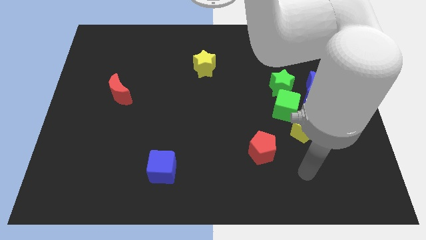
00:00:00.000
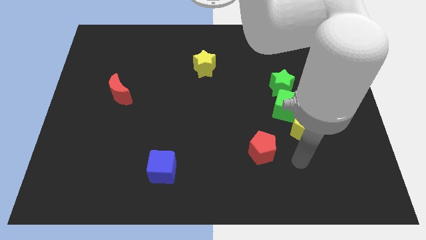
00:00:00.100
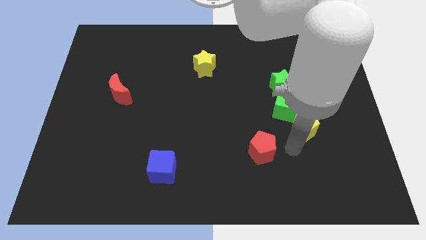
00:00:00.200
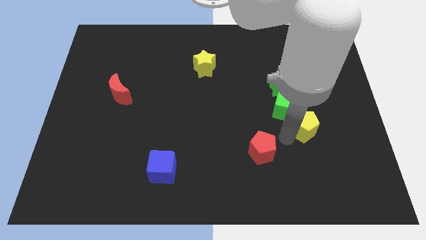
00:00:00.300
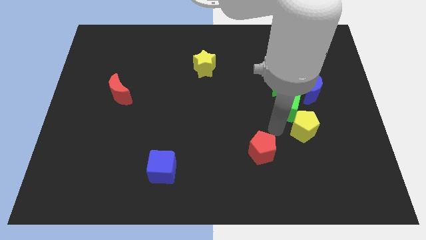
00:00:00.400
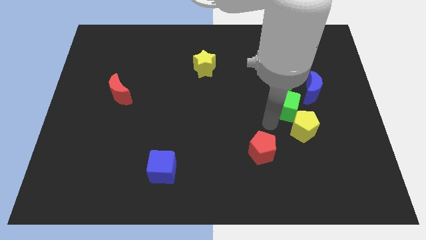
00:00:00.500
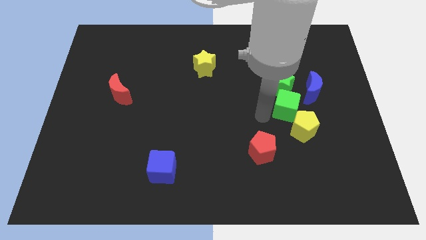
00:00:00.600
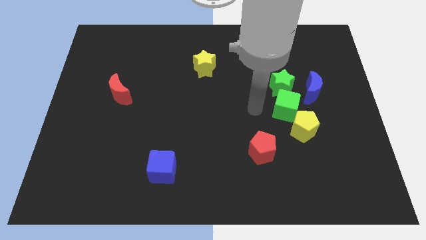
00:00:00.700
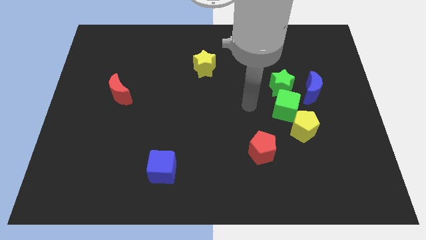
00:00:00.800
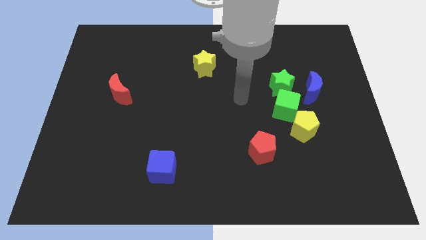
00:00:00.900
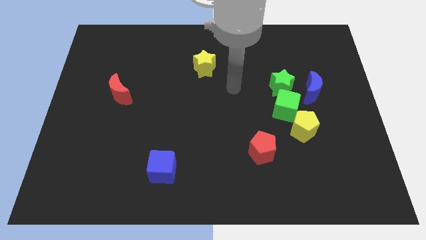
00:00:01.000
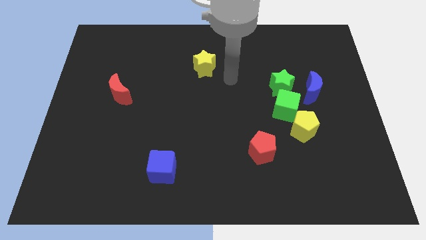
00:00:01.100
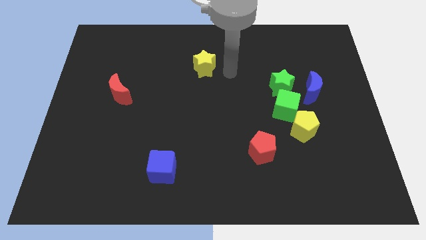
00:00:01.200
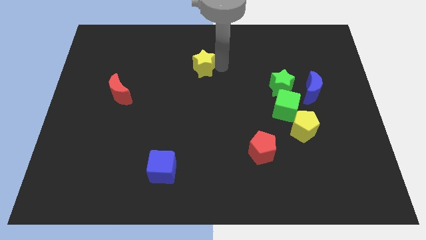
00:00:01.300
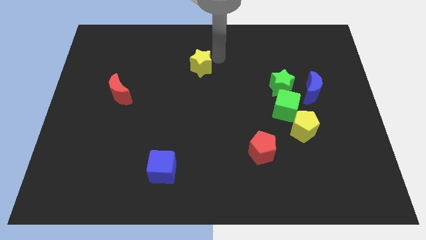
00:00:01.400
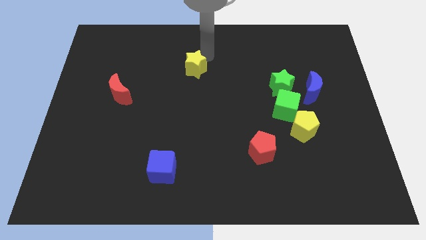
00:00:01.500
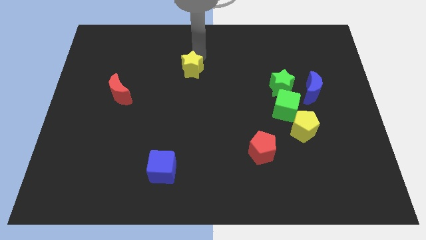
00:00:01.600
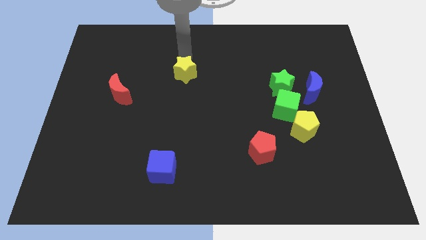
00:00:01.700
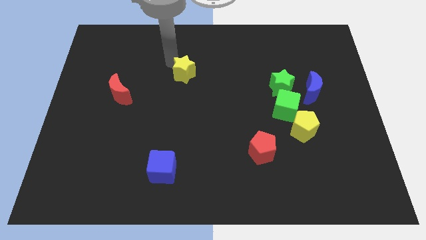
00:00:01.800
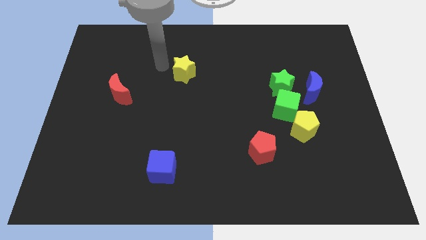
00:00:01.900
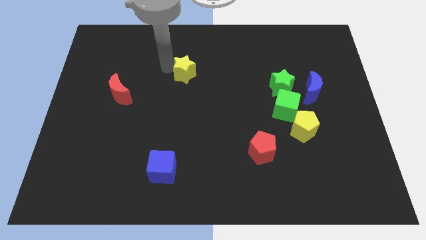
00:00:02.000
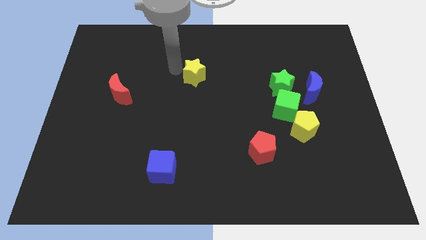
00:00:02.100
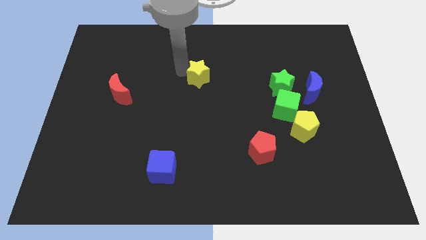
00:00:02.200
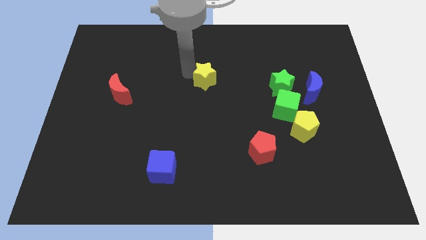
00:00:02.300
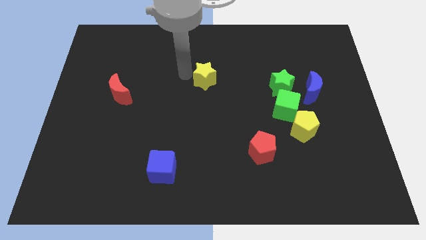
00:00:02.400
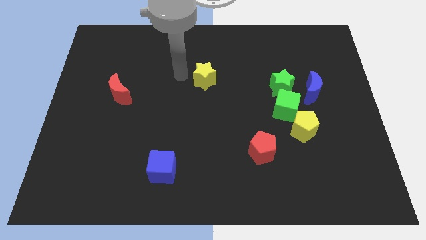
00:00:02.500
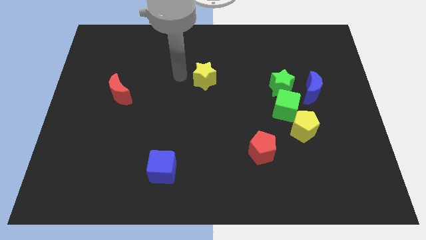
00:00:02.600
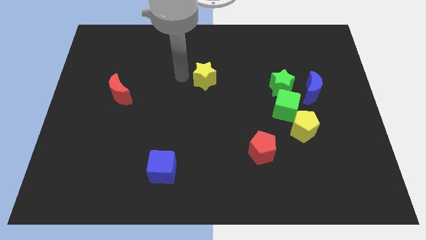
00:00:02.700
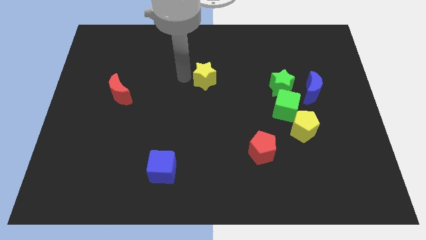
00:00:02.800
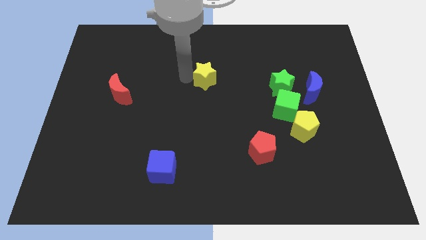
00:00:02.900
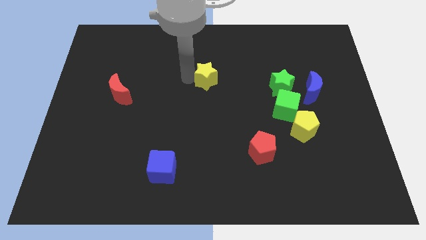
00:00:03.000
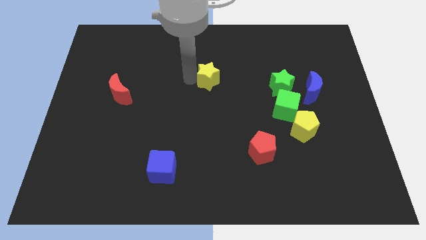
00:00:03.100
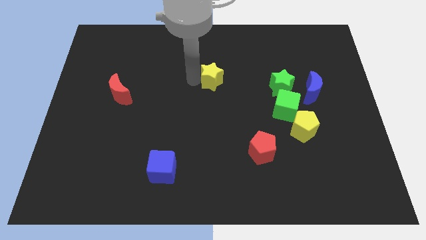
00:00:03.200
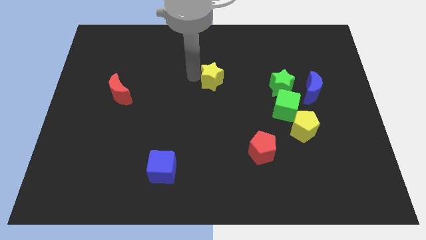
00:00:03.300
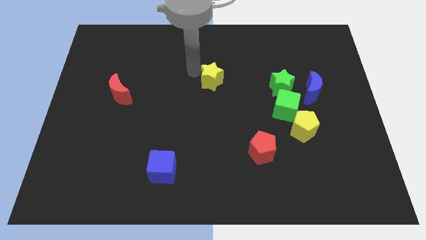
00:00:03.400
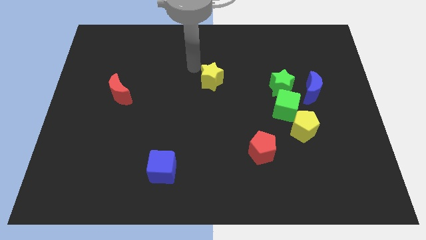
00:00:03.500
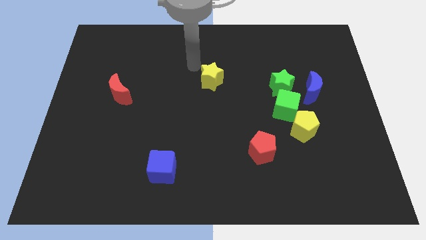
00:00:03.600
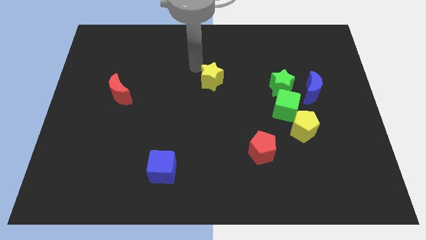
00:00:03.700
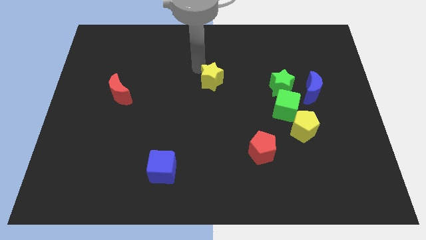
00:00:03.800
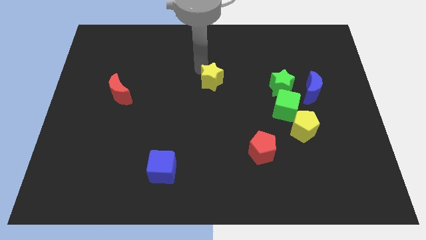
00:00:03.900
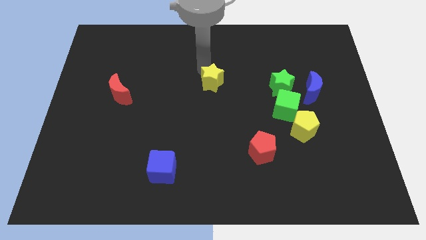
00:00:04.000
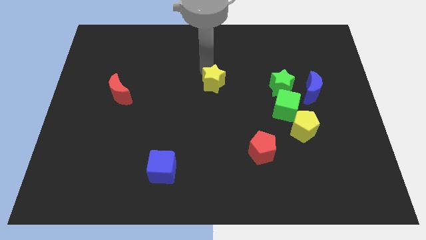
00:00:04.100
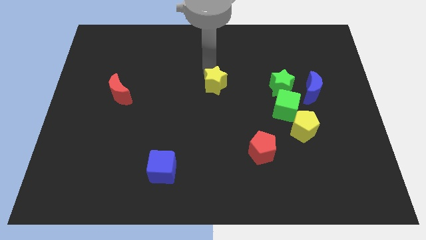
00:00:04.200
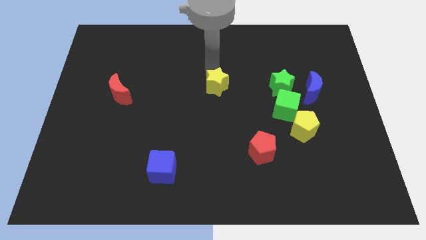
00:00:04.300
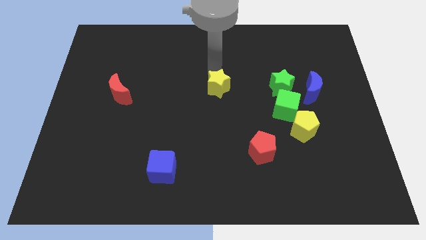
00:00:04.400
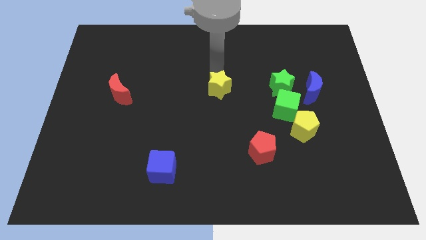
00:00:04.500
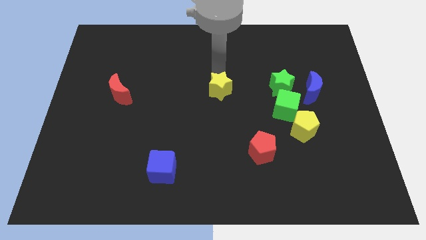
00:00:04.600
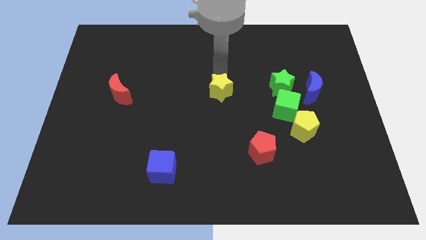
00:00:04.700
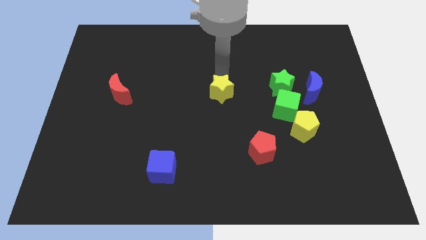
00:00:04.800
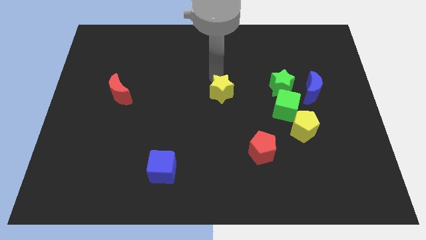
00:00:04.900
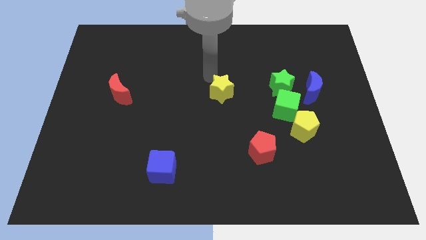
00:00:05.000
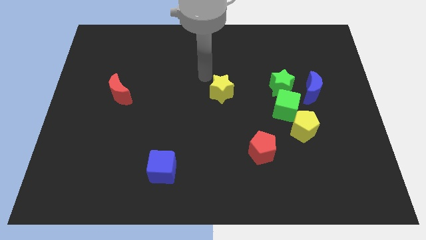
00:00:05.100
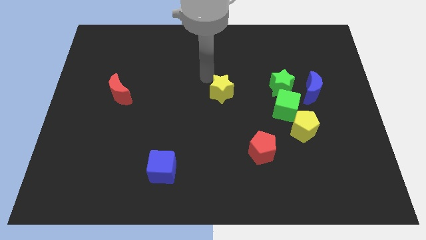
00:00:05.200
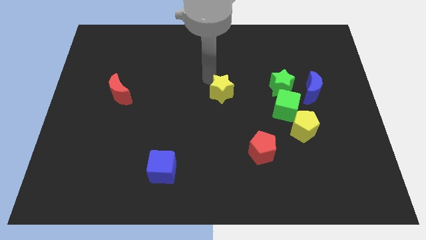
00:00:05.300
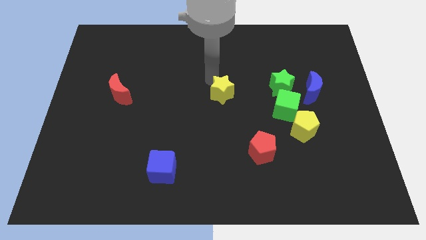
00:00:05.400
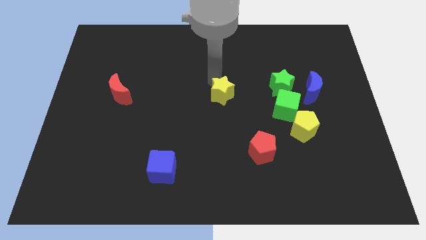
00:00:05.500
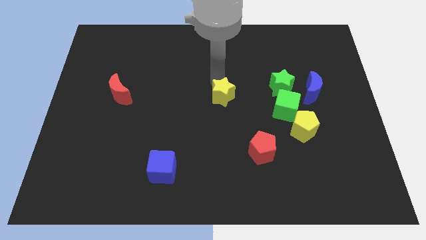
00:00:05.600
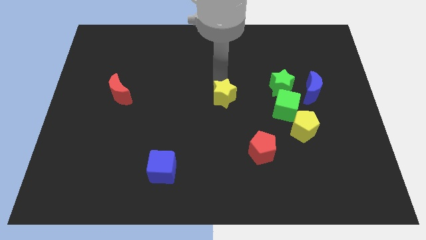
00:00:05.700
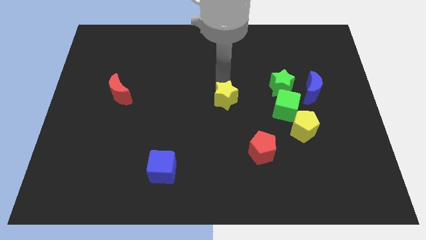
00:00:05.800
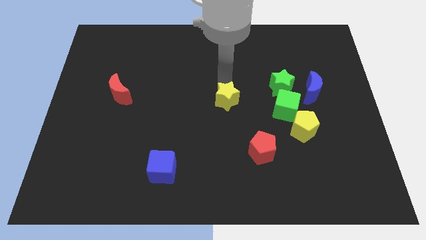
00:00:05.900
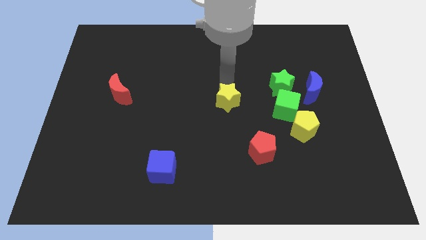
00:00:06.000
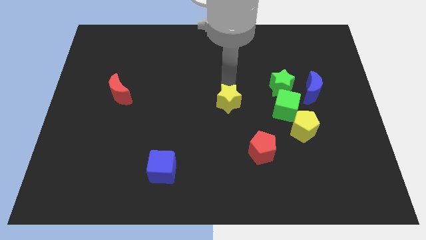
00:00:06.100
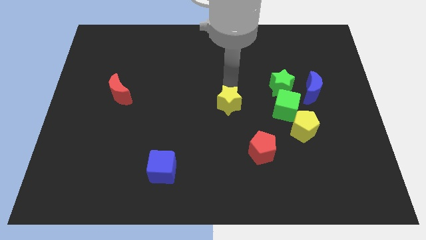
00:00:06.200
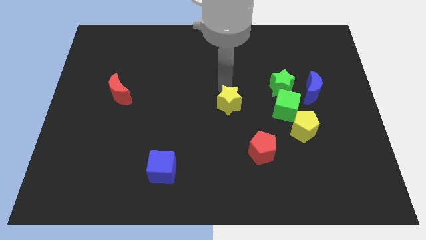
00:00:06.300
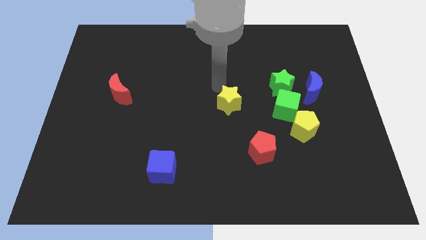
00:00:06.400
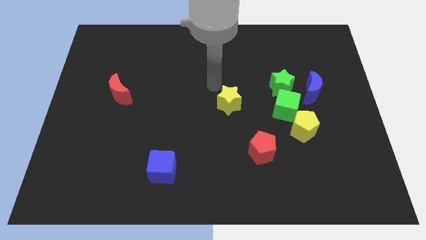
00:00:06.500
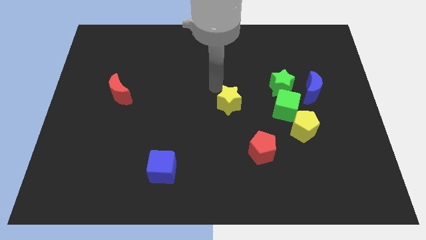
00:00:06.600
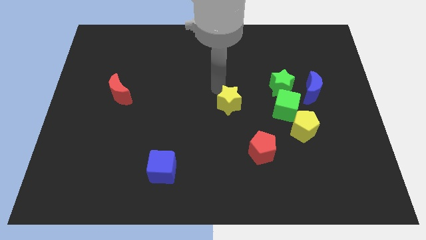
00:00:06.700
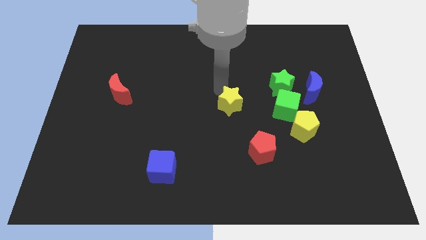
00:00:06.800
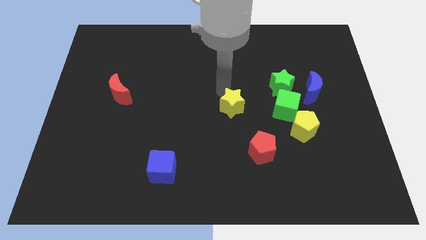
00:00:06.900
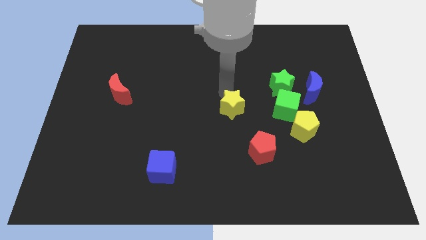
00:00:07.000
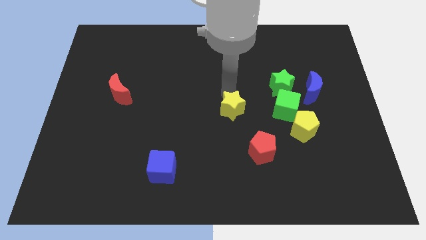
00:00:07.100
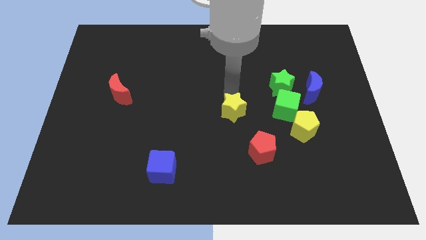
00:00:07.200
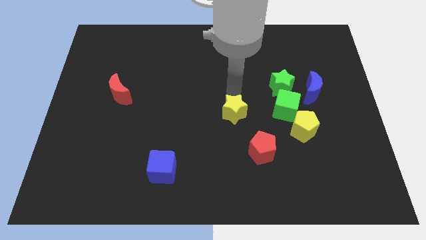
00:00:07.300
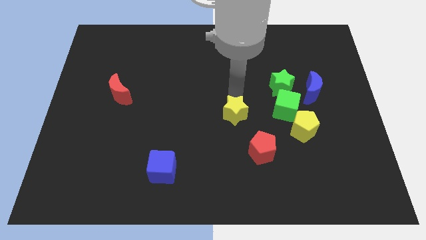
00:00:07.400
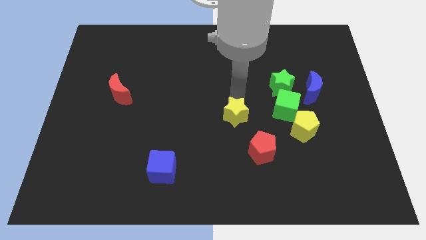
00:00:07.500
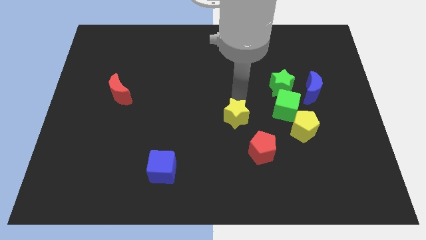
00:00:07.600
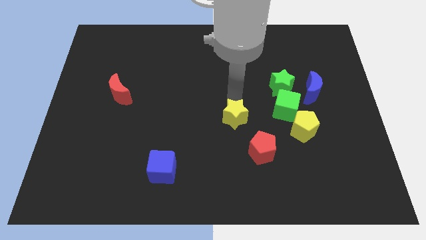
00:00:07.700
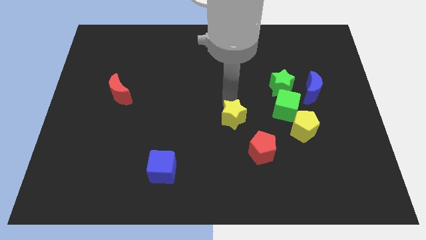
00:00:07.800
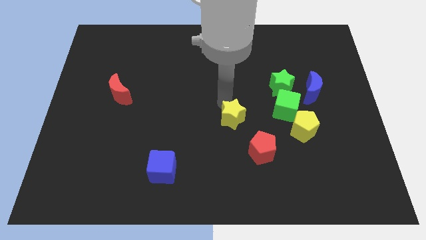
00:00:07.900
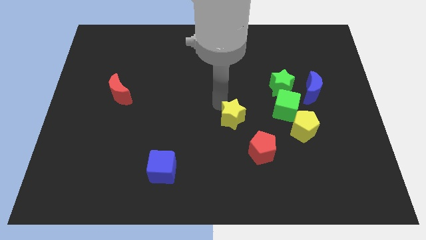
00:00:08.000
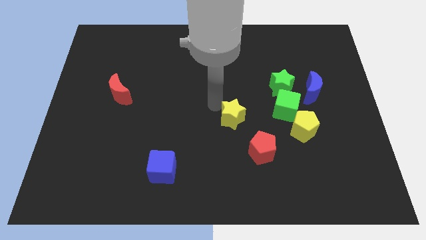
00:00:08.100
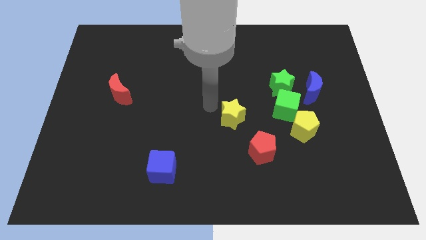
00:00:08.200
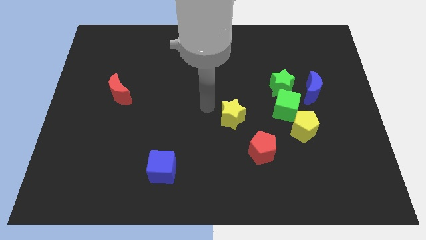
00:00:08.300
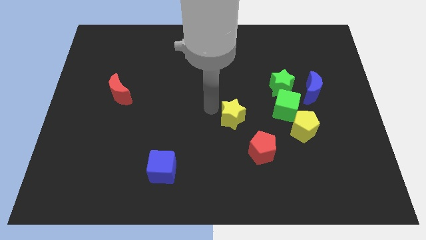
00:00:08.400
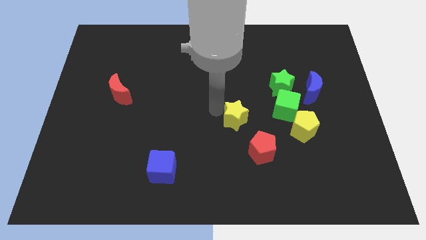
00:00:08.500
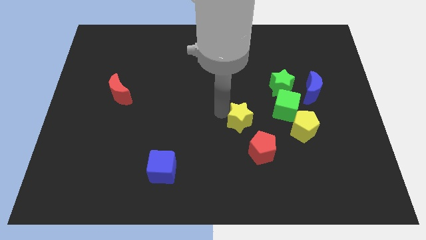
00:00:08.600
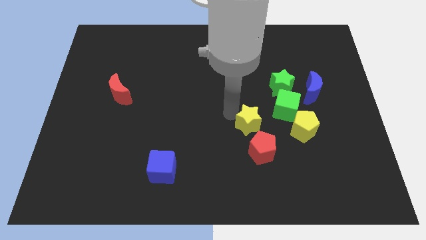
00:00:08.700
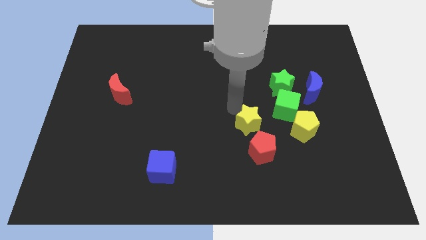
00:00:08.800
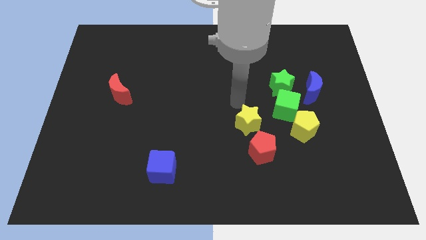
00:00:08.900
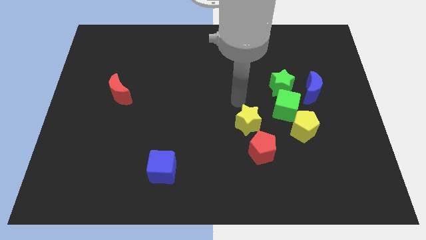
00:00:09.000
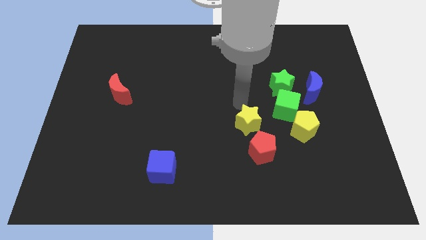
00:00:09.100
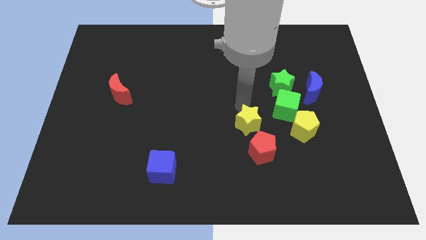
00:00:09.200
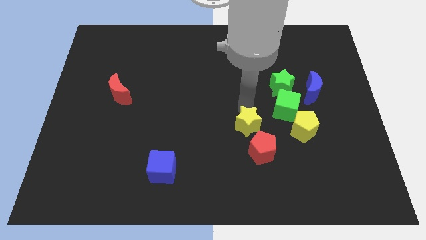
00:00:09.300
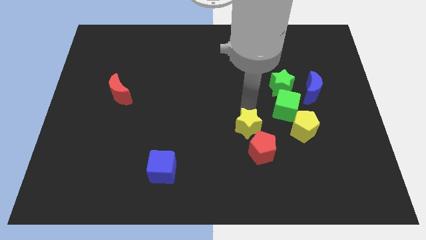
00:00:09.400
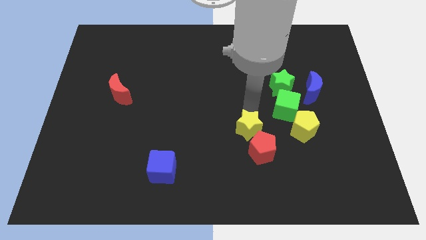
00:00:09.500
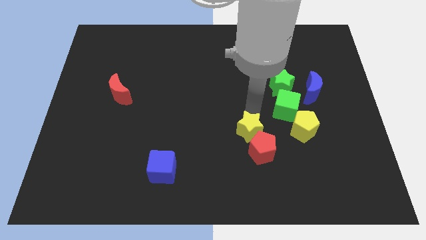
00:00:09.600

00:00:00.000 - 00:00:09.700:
push the yellow star close to the red pentagon
